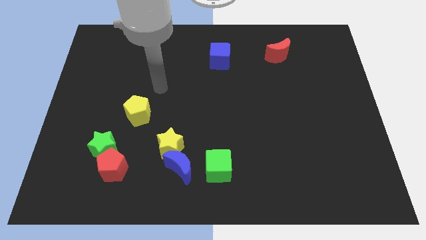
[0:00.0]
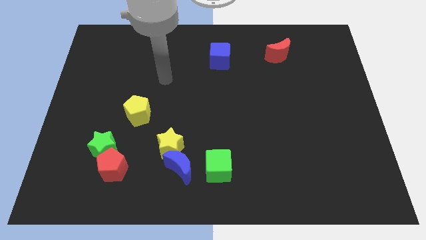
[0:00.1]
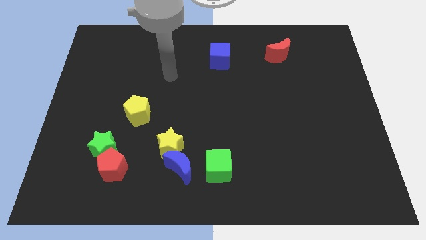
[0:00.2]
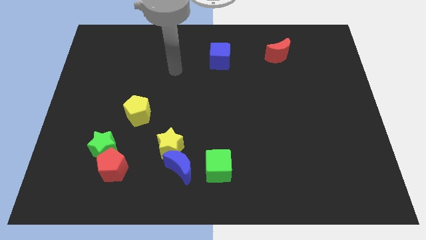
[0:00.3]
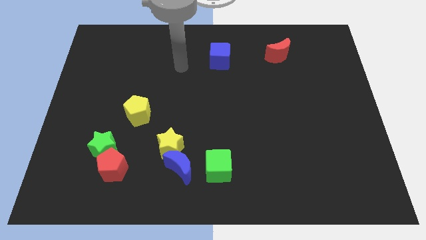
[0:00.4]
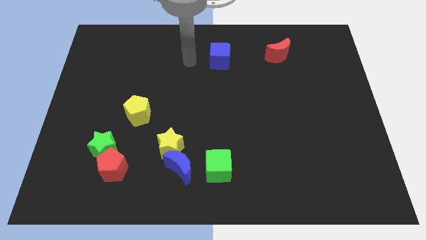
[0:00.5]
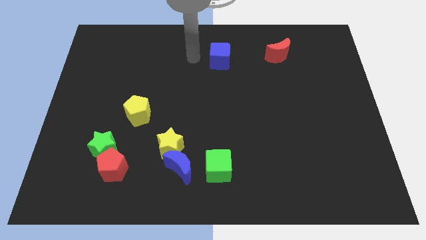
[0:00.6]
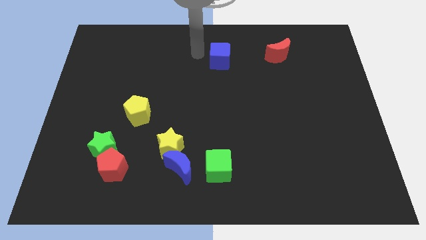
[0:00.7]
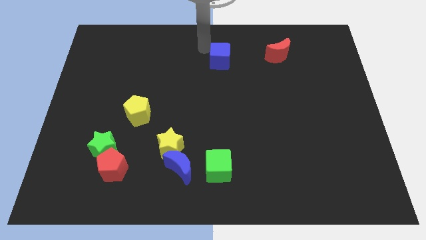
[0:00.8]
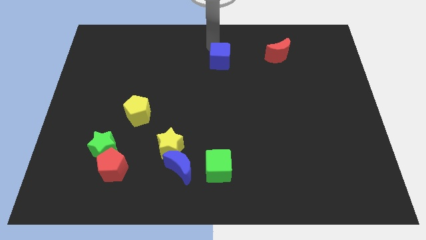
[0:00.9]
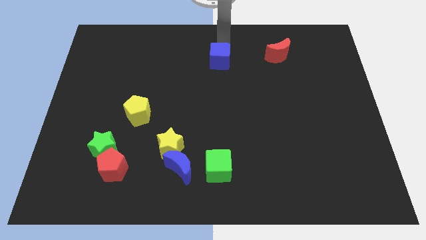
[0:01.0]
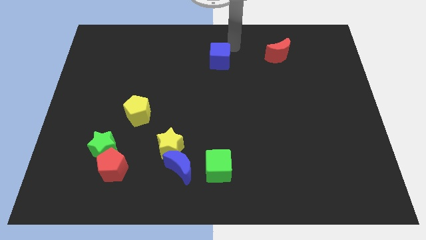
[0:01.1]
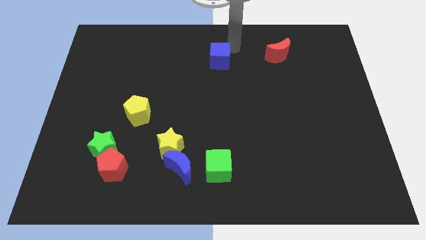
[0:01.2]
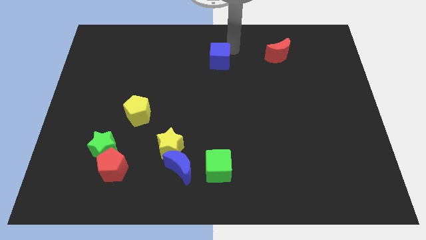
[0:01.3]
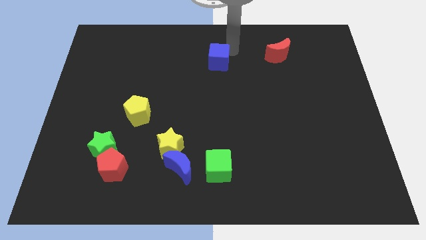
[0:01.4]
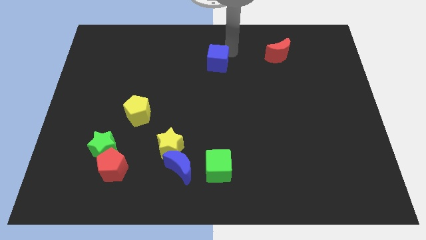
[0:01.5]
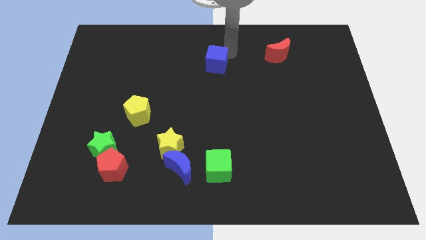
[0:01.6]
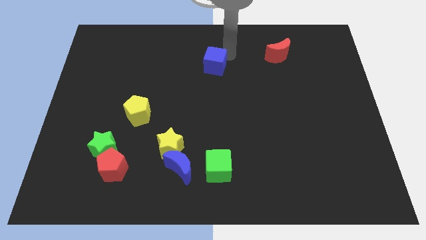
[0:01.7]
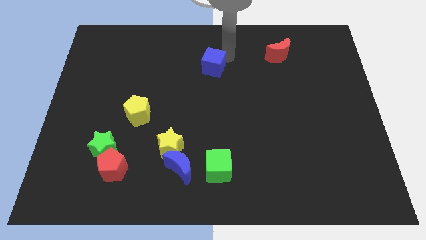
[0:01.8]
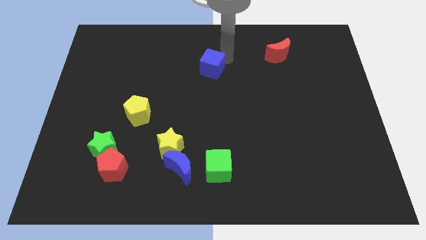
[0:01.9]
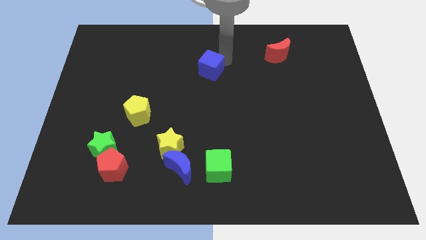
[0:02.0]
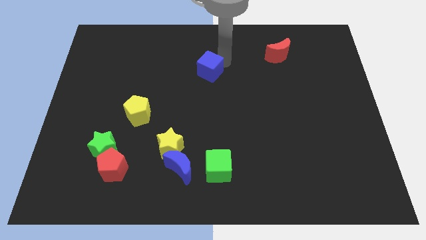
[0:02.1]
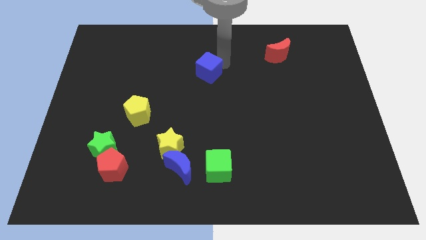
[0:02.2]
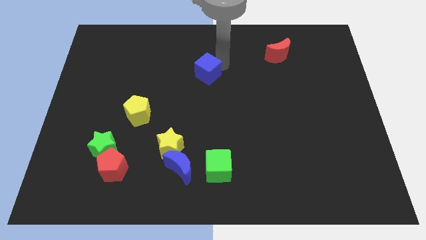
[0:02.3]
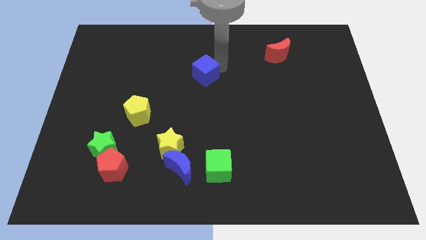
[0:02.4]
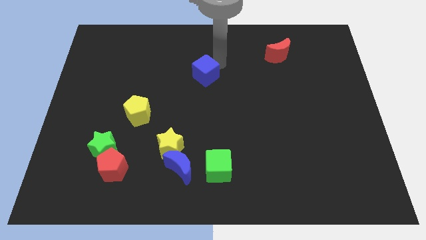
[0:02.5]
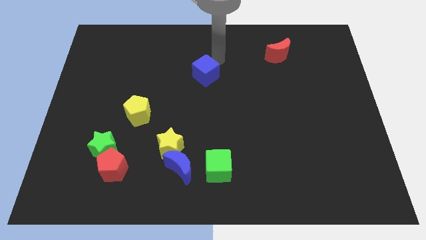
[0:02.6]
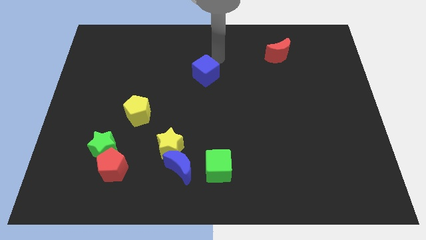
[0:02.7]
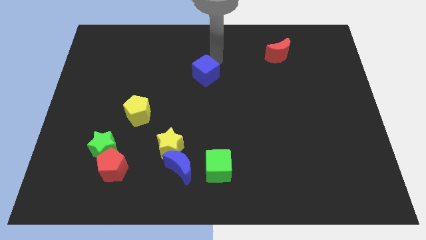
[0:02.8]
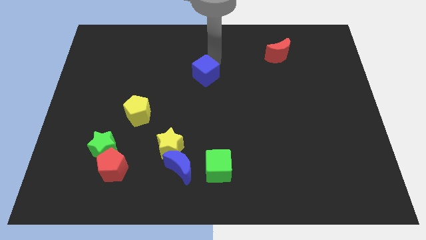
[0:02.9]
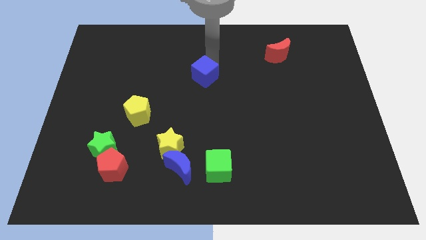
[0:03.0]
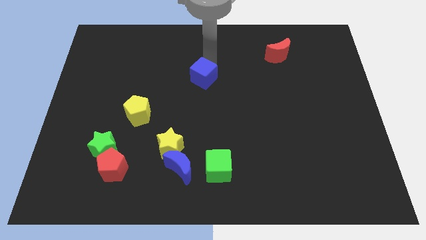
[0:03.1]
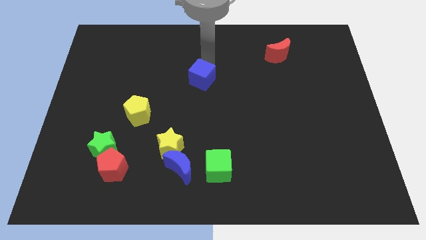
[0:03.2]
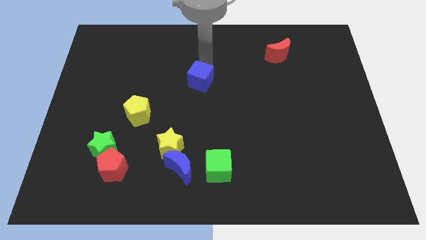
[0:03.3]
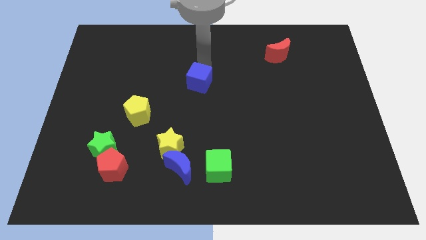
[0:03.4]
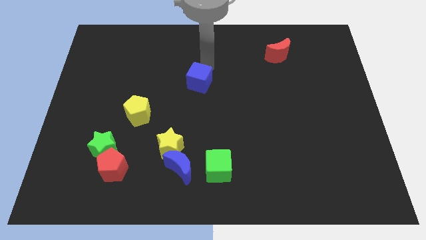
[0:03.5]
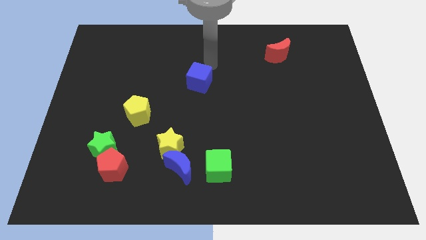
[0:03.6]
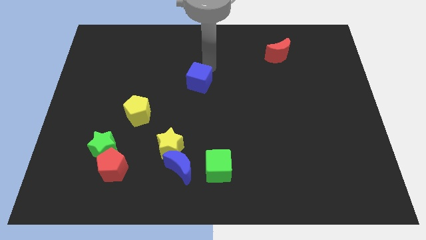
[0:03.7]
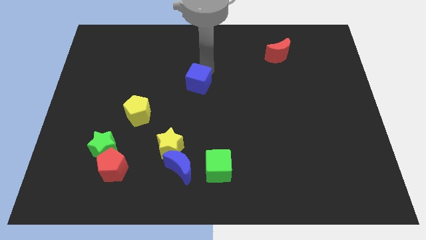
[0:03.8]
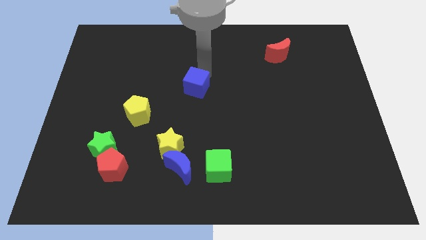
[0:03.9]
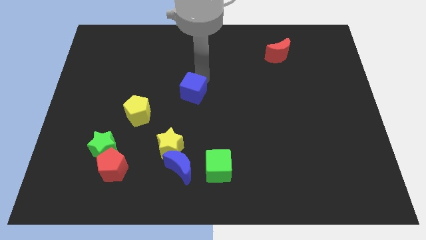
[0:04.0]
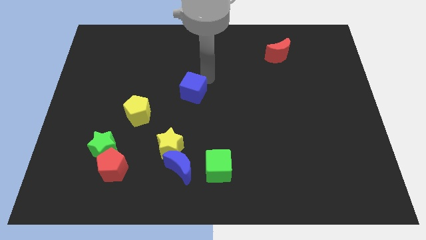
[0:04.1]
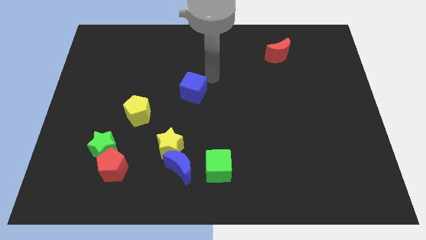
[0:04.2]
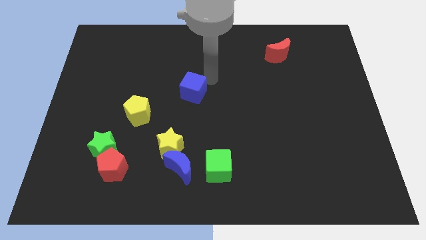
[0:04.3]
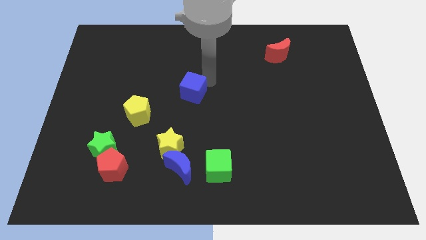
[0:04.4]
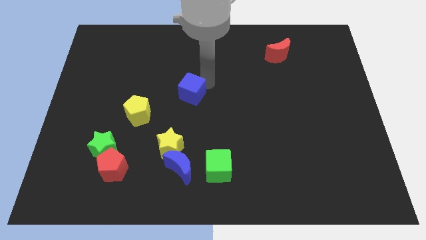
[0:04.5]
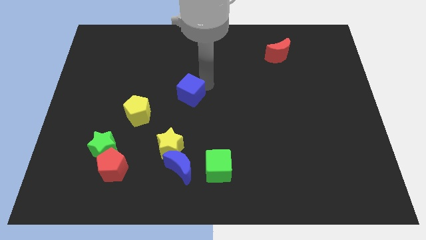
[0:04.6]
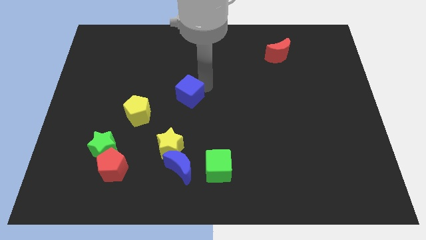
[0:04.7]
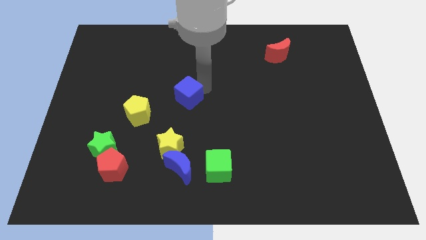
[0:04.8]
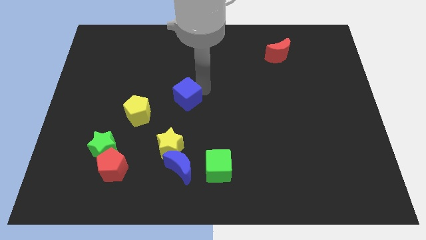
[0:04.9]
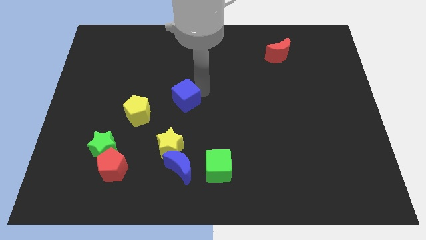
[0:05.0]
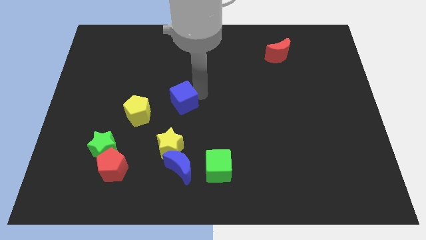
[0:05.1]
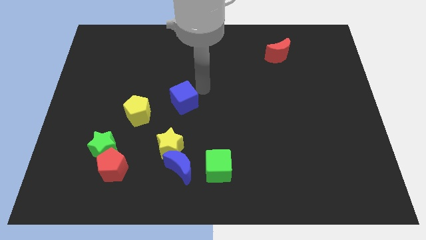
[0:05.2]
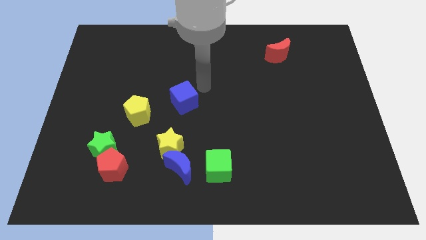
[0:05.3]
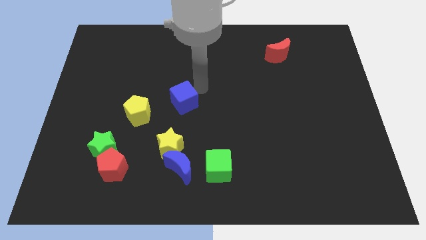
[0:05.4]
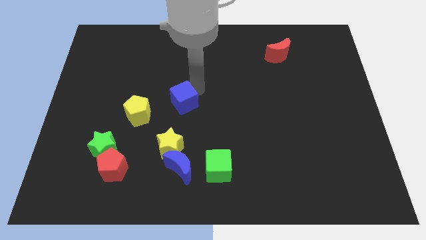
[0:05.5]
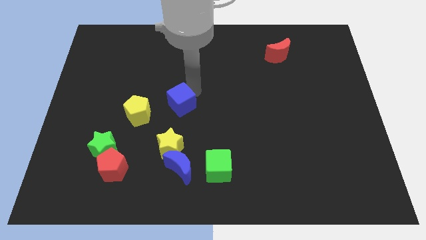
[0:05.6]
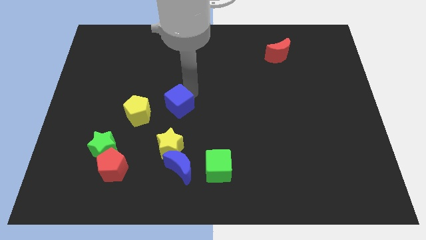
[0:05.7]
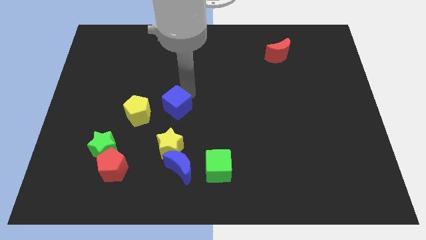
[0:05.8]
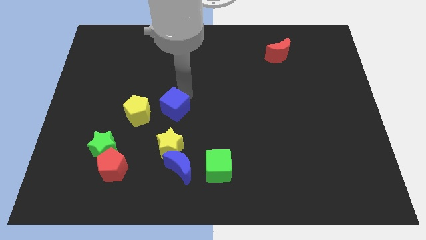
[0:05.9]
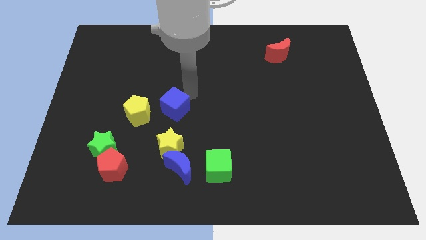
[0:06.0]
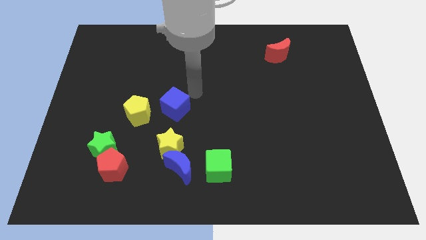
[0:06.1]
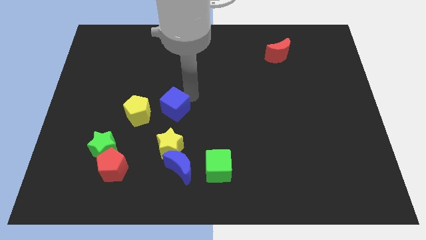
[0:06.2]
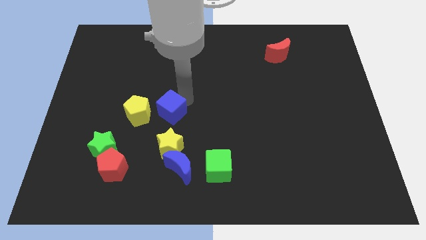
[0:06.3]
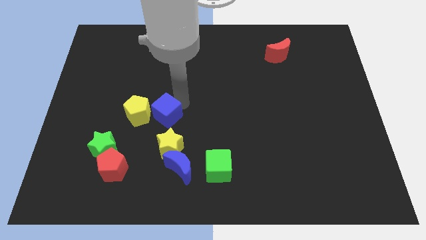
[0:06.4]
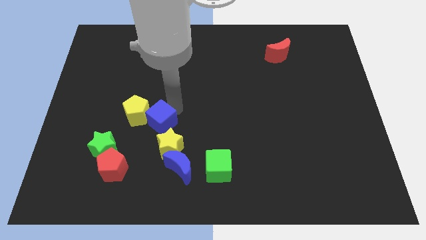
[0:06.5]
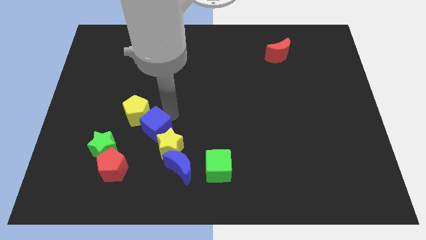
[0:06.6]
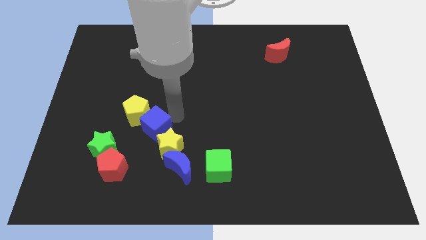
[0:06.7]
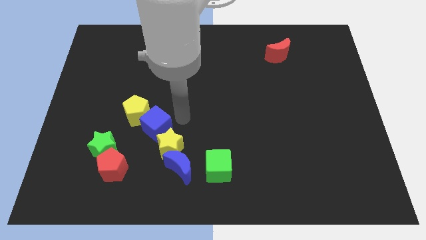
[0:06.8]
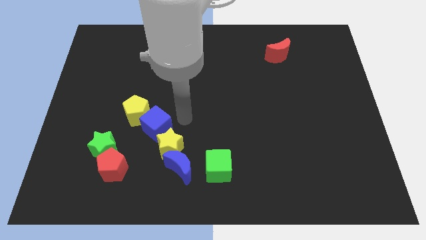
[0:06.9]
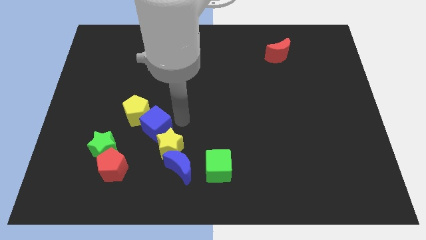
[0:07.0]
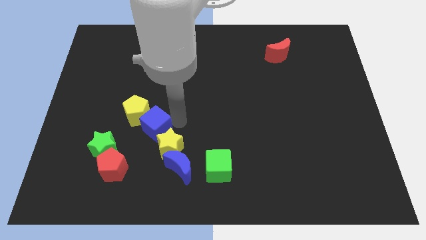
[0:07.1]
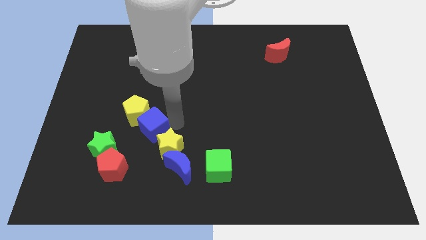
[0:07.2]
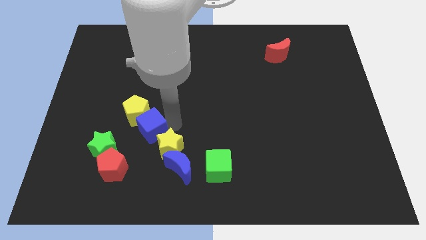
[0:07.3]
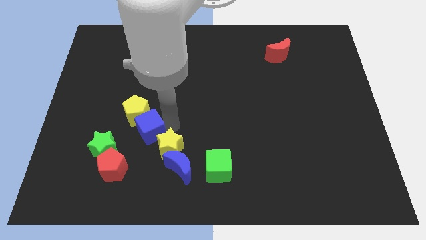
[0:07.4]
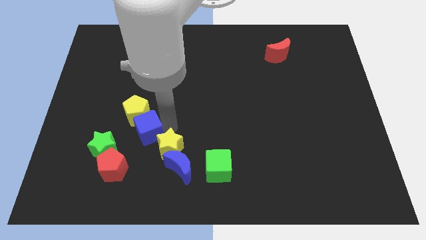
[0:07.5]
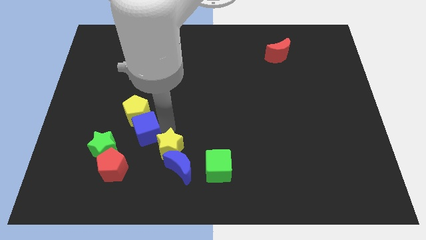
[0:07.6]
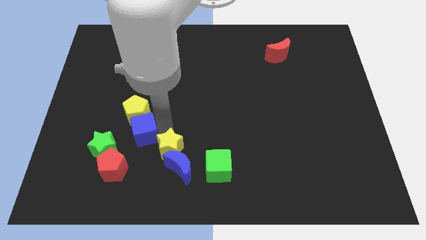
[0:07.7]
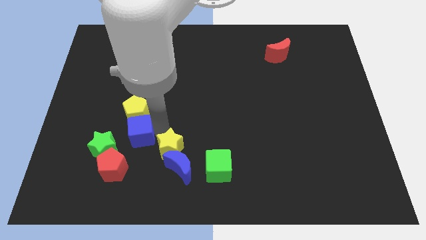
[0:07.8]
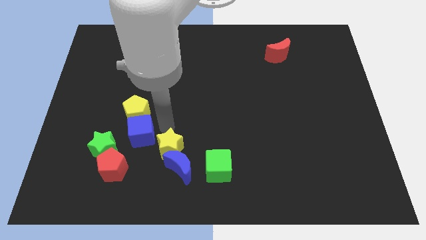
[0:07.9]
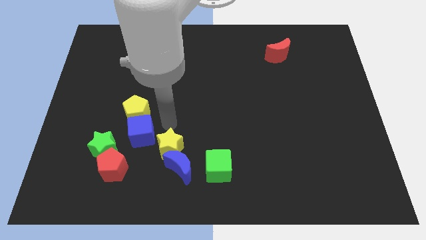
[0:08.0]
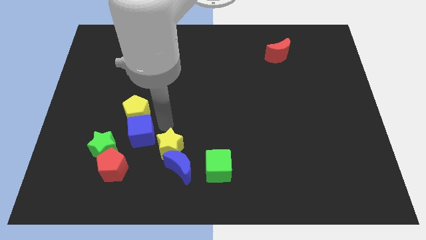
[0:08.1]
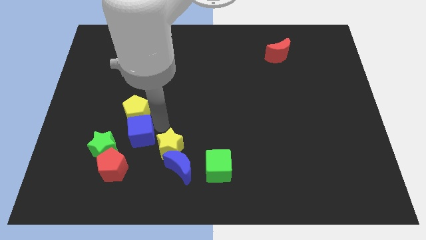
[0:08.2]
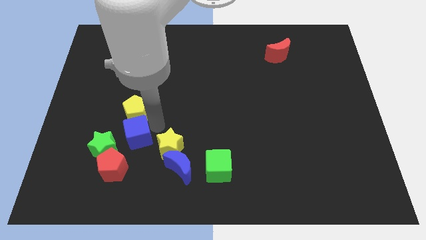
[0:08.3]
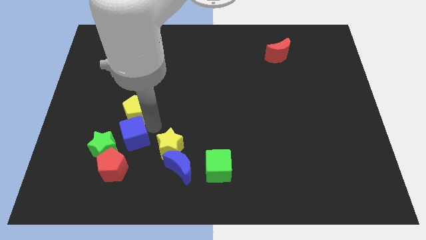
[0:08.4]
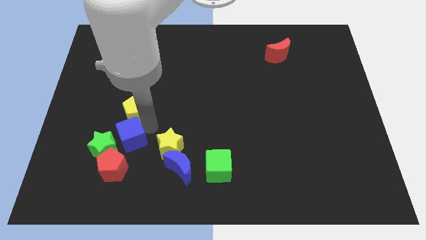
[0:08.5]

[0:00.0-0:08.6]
slide the blue cube to the green star
